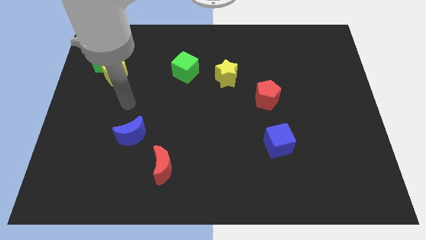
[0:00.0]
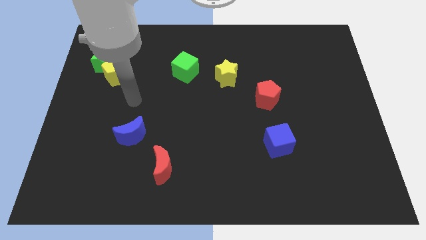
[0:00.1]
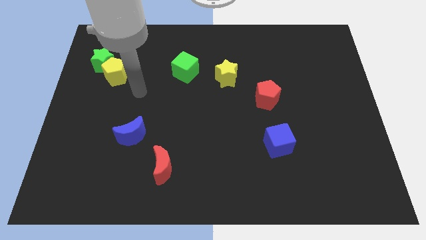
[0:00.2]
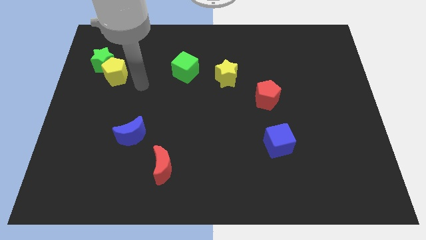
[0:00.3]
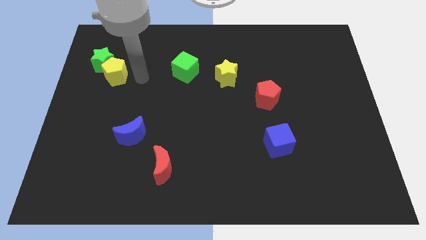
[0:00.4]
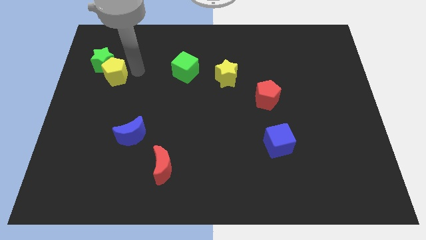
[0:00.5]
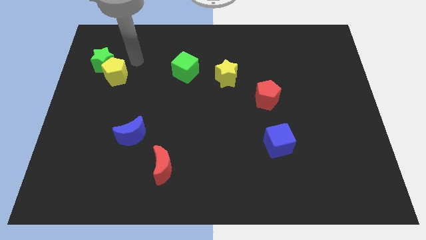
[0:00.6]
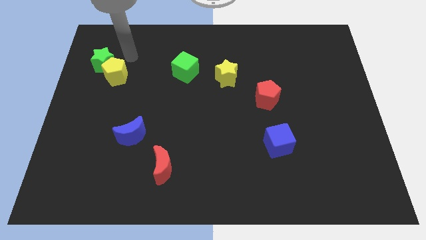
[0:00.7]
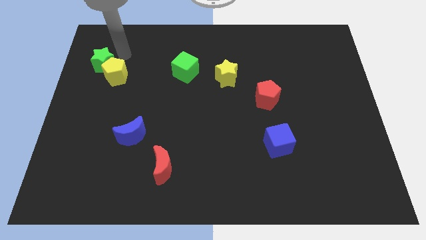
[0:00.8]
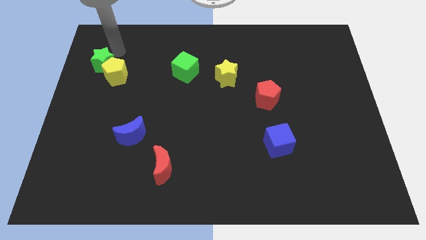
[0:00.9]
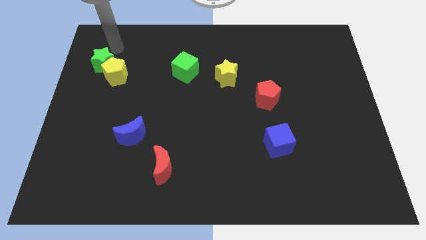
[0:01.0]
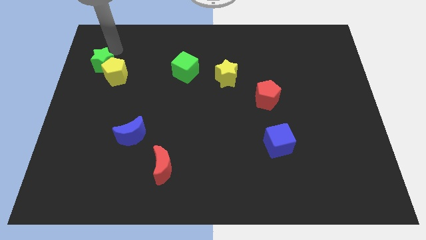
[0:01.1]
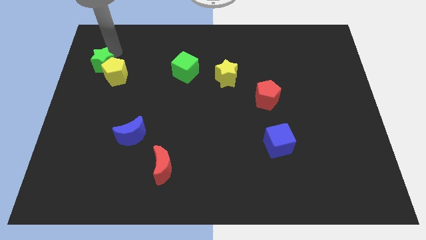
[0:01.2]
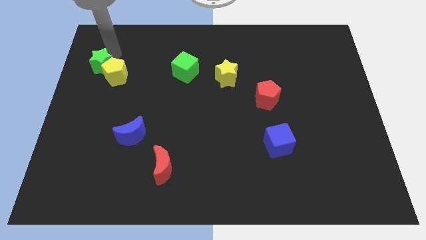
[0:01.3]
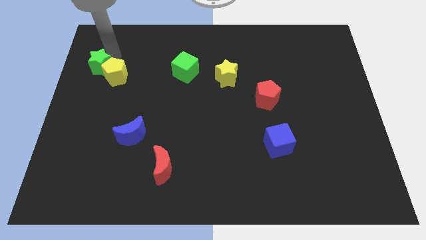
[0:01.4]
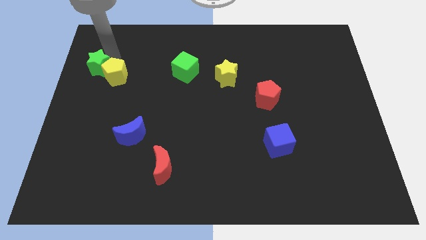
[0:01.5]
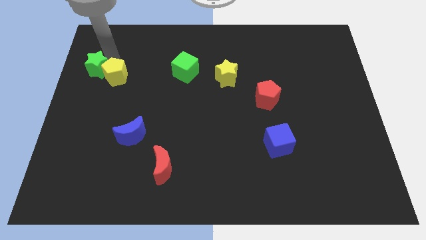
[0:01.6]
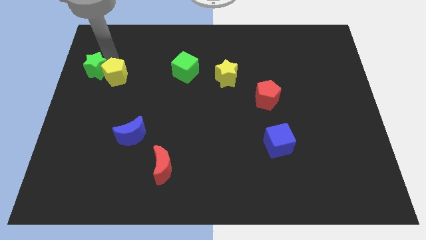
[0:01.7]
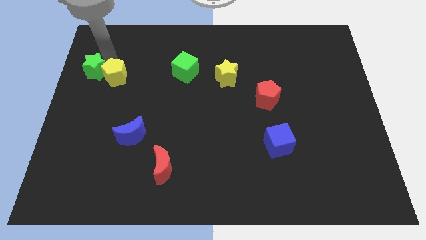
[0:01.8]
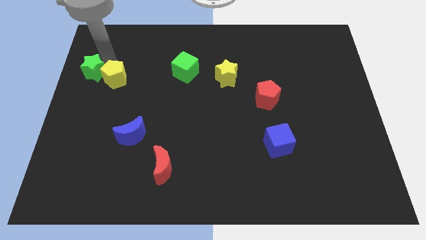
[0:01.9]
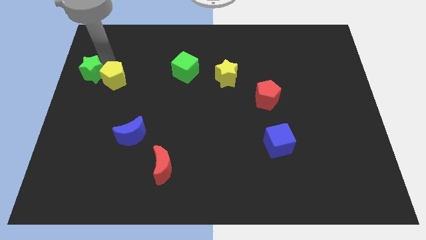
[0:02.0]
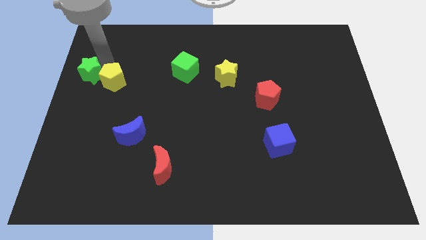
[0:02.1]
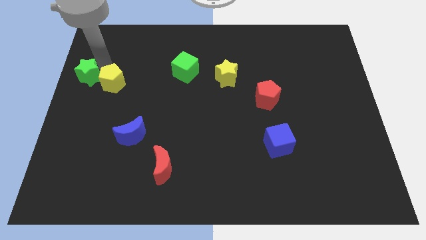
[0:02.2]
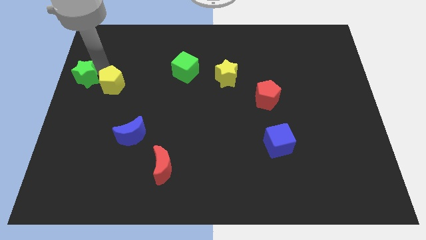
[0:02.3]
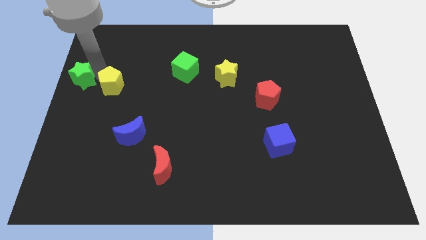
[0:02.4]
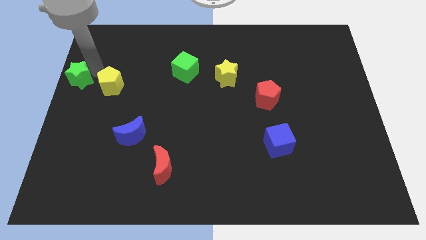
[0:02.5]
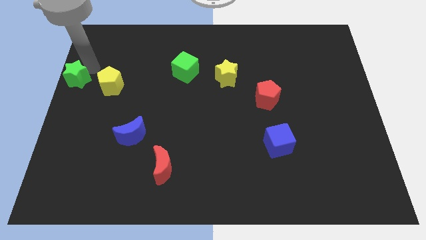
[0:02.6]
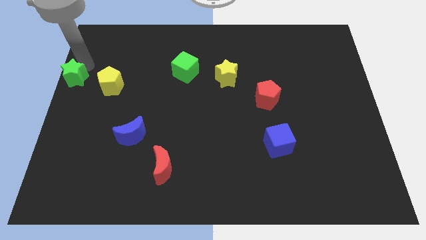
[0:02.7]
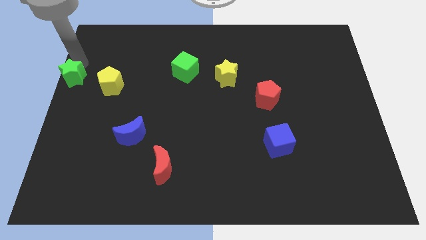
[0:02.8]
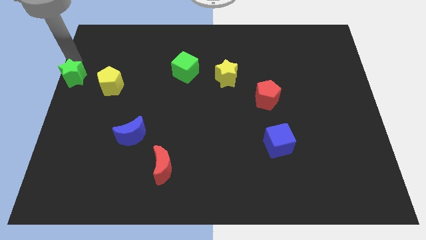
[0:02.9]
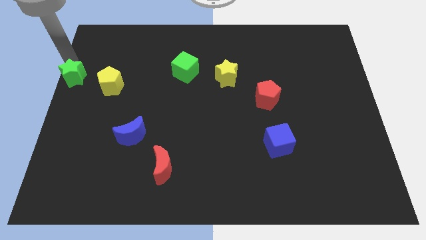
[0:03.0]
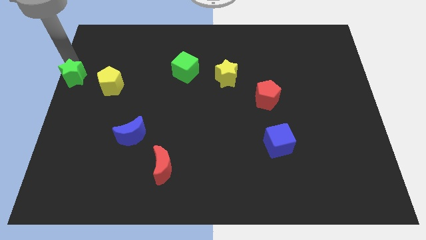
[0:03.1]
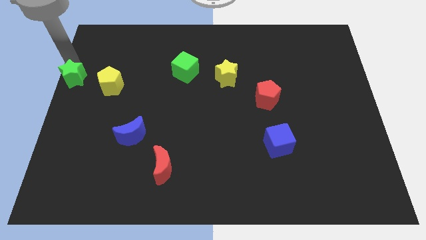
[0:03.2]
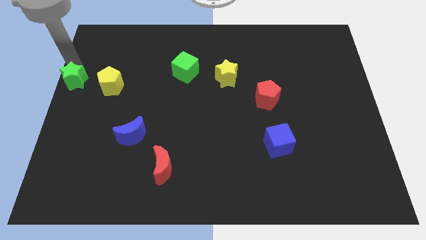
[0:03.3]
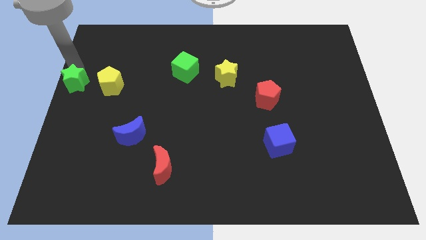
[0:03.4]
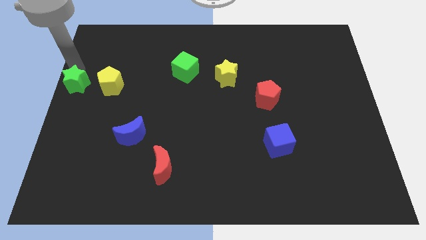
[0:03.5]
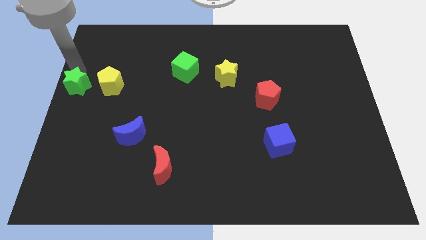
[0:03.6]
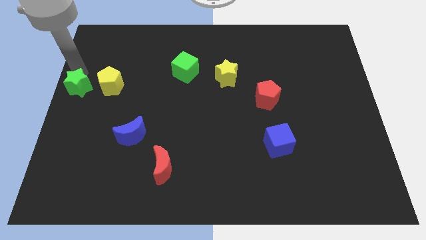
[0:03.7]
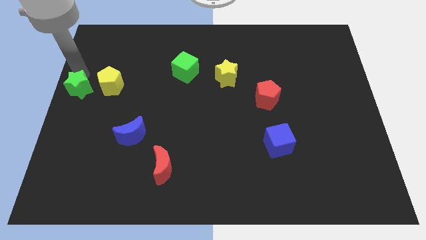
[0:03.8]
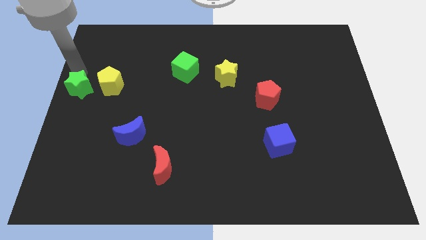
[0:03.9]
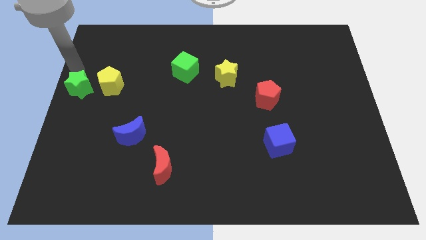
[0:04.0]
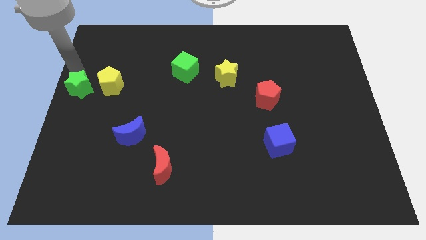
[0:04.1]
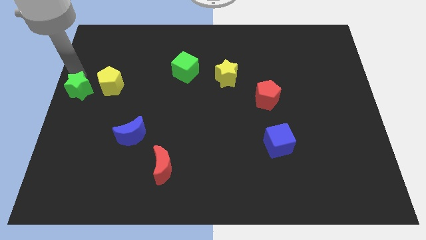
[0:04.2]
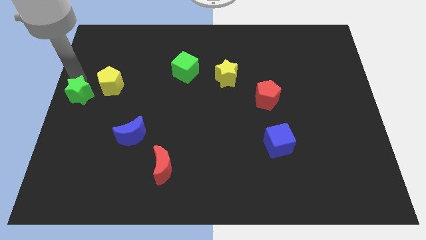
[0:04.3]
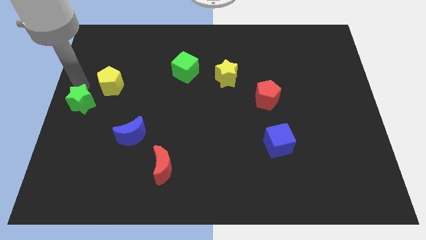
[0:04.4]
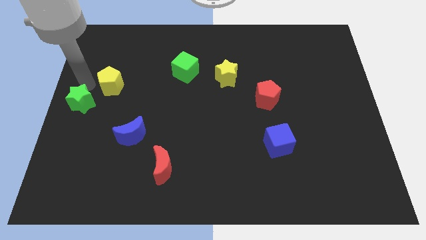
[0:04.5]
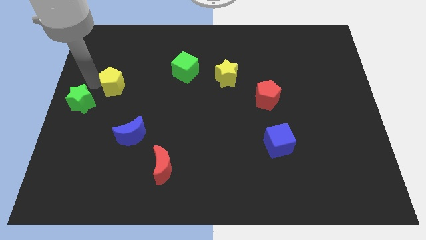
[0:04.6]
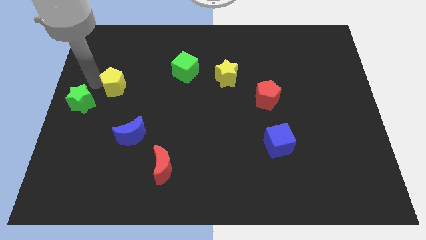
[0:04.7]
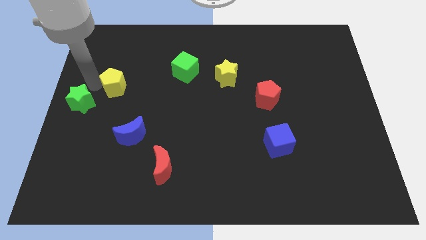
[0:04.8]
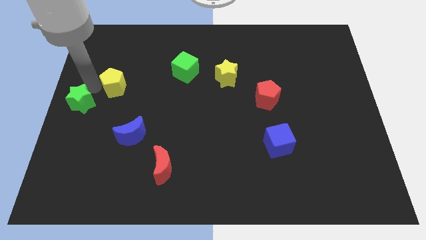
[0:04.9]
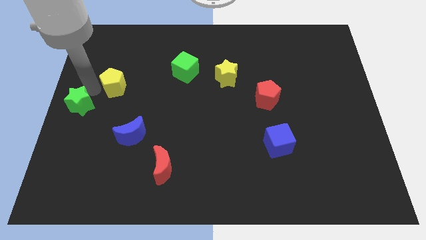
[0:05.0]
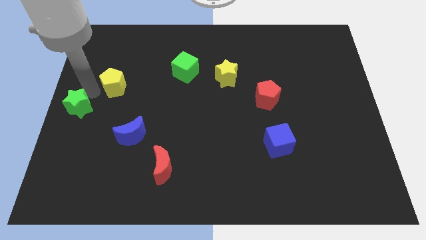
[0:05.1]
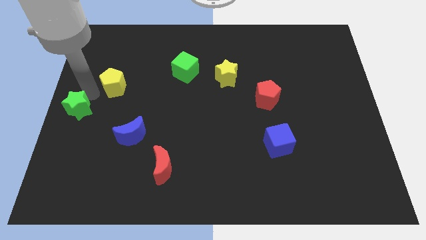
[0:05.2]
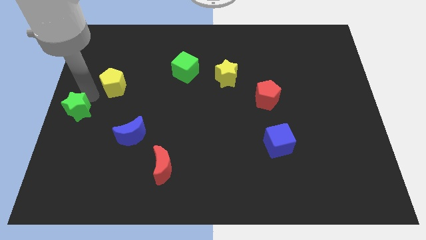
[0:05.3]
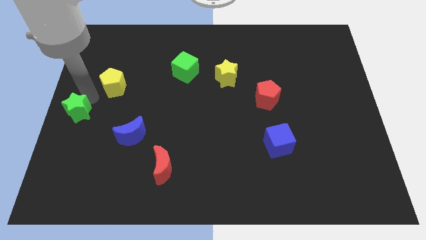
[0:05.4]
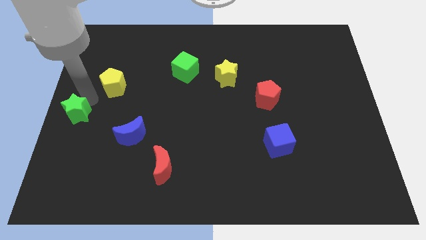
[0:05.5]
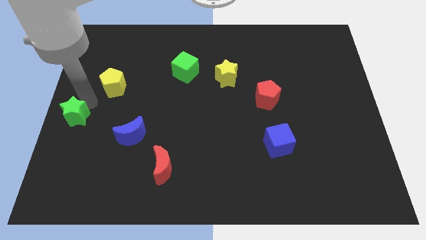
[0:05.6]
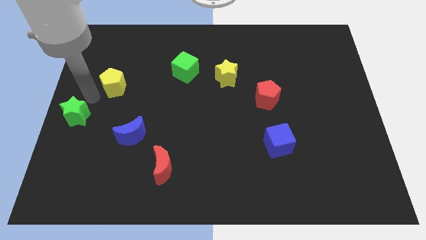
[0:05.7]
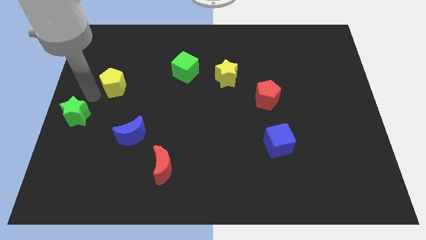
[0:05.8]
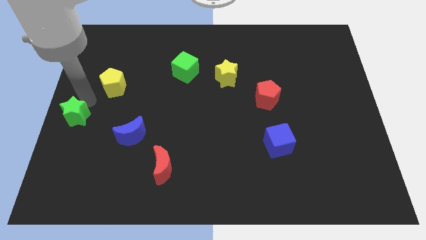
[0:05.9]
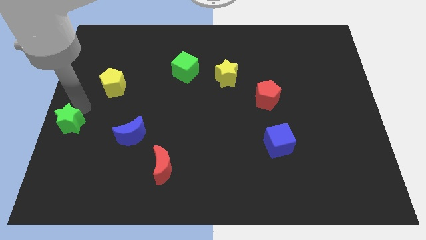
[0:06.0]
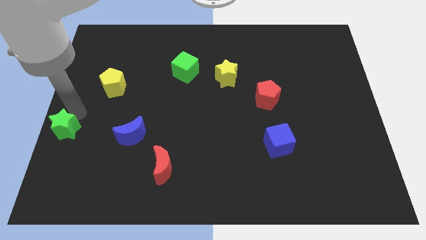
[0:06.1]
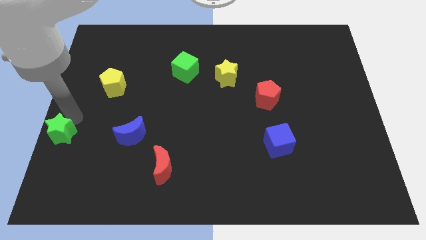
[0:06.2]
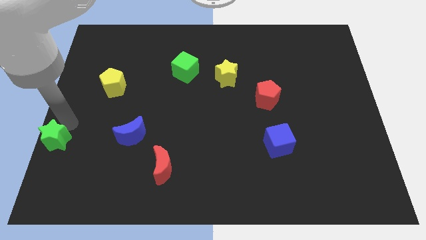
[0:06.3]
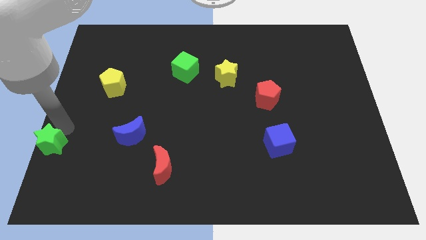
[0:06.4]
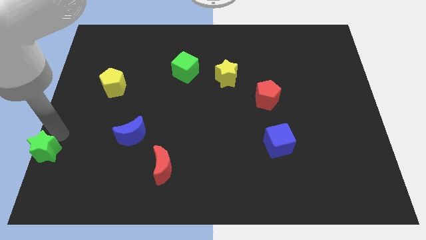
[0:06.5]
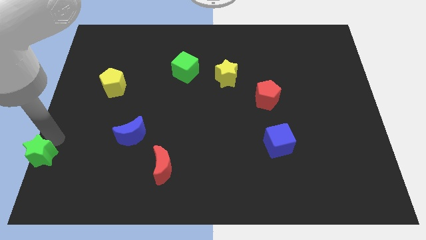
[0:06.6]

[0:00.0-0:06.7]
slide the green star to the bottom left of the board
